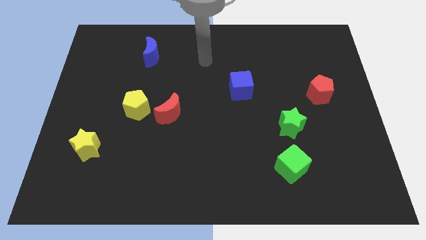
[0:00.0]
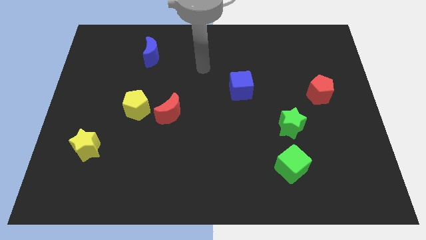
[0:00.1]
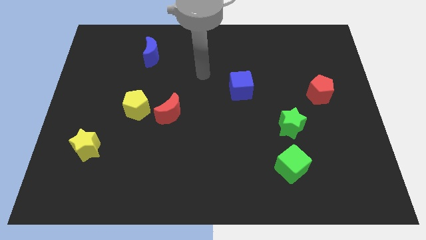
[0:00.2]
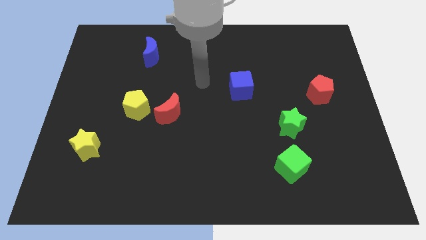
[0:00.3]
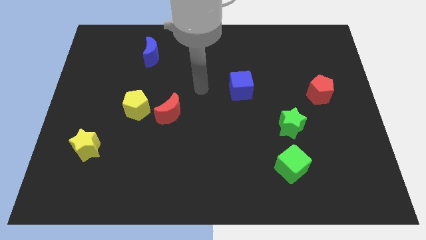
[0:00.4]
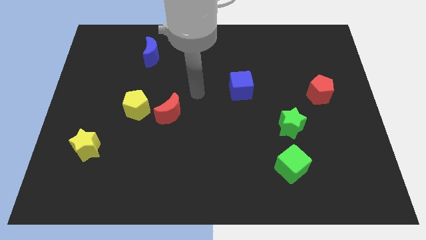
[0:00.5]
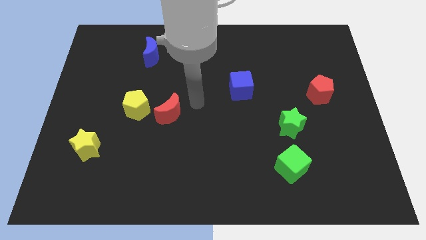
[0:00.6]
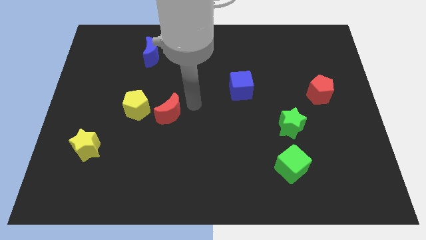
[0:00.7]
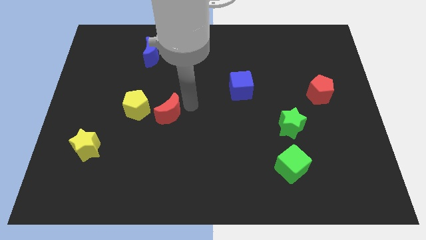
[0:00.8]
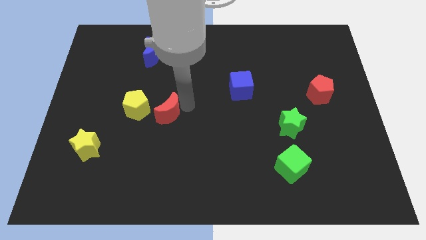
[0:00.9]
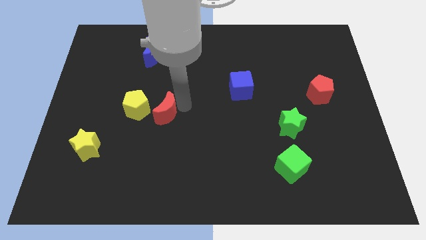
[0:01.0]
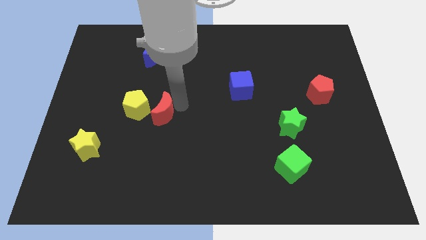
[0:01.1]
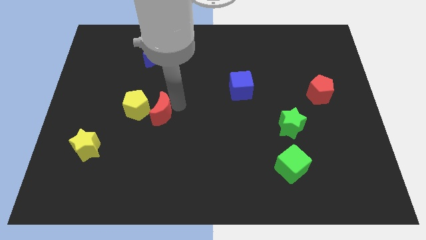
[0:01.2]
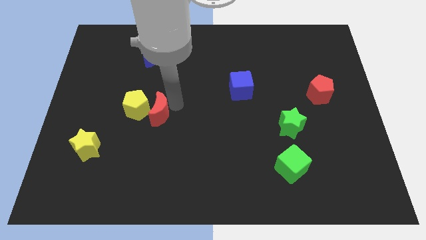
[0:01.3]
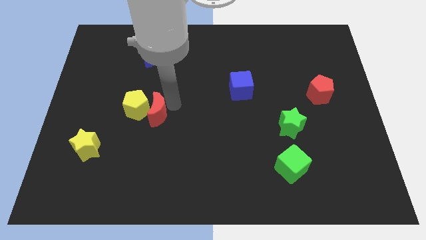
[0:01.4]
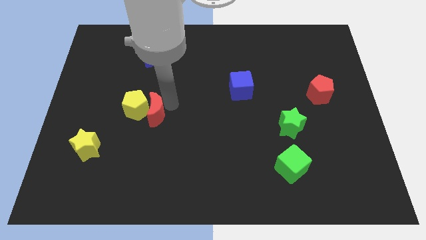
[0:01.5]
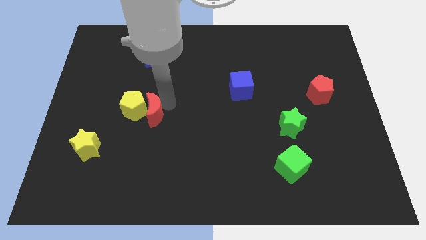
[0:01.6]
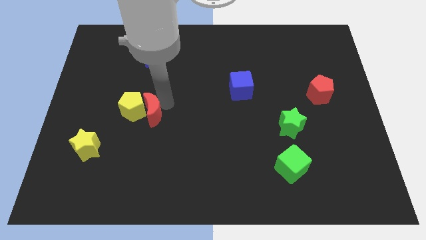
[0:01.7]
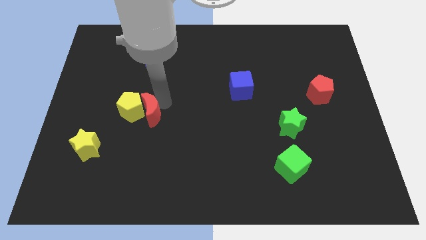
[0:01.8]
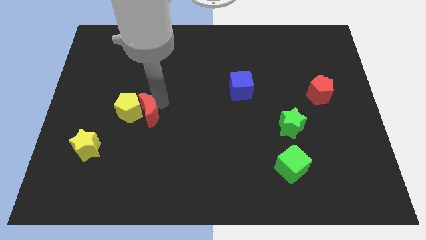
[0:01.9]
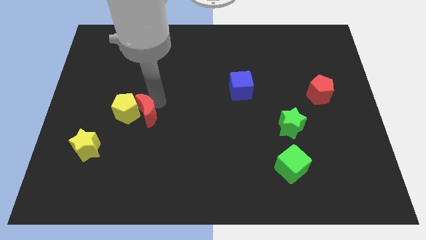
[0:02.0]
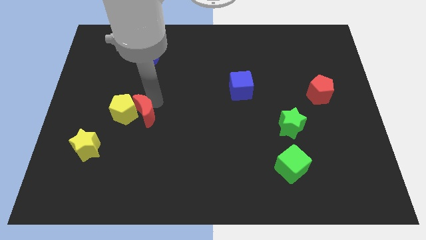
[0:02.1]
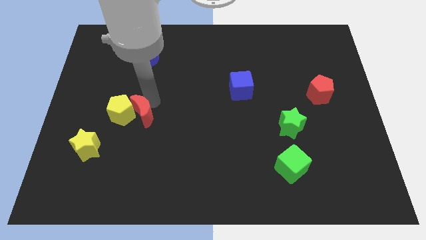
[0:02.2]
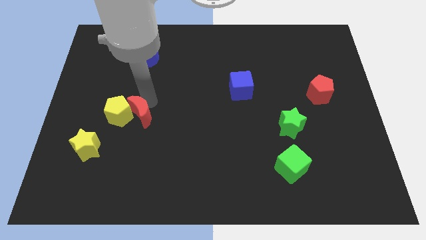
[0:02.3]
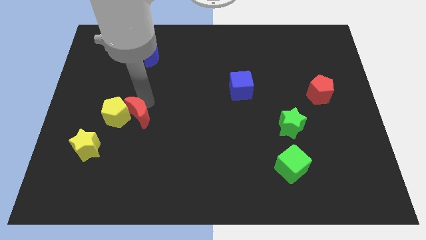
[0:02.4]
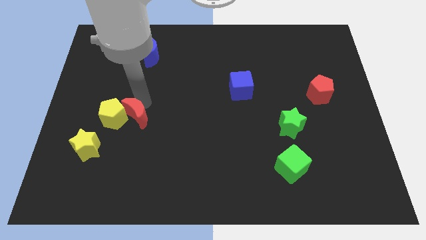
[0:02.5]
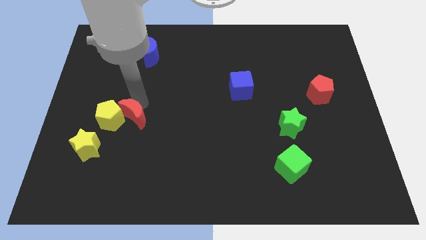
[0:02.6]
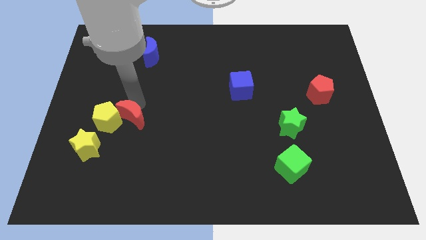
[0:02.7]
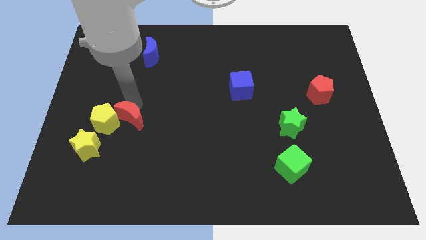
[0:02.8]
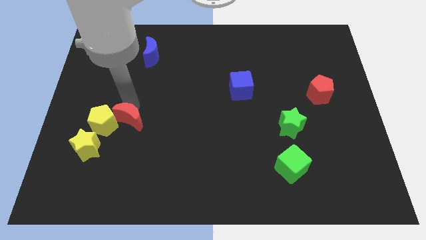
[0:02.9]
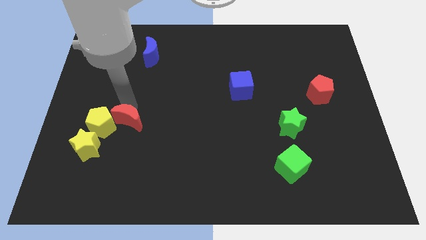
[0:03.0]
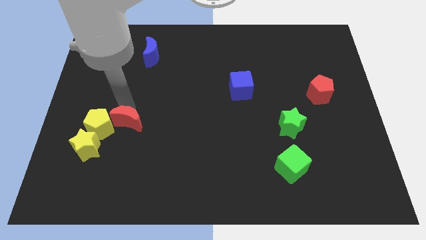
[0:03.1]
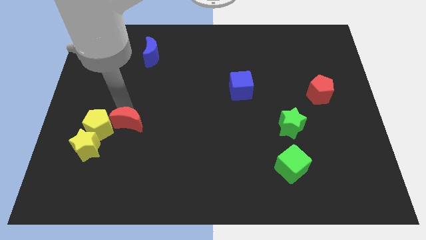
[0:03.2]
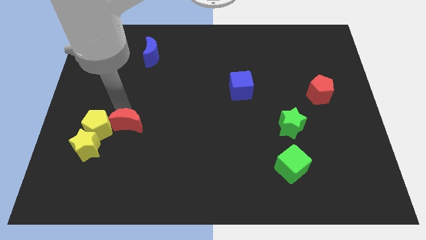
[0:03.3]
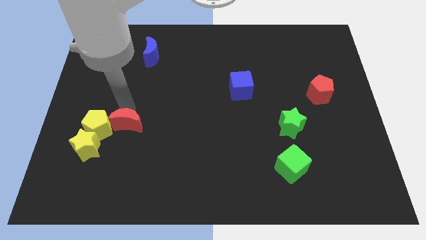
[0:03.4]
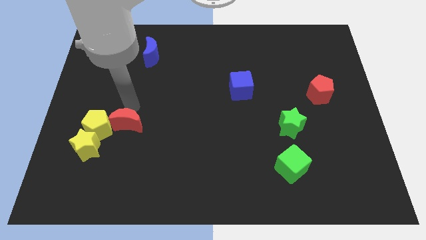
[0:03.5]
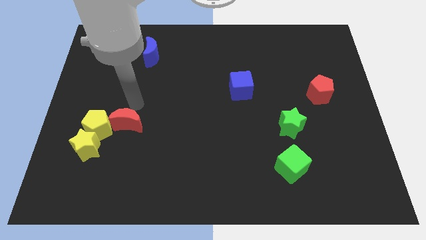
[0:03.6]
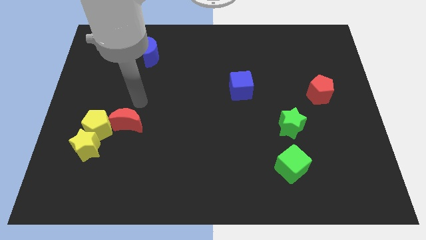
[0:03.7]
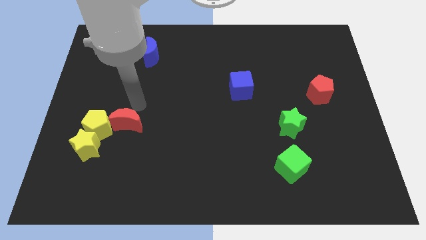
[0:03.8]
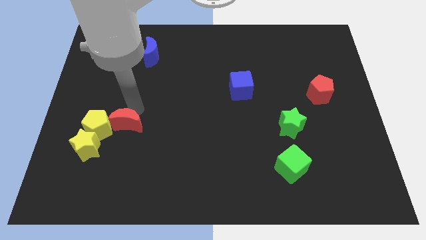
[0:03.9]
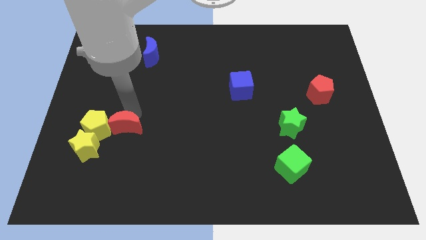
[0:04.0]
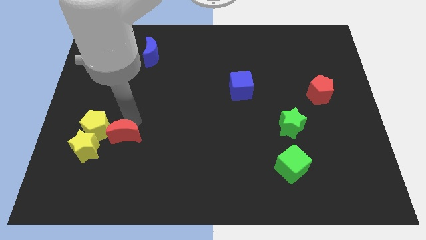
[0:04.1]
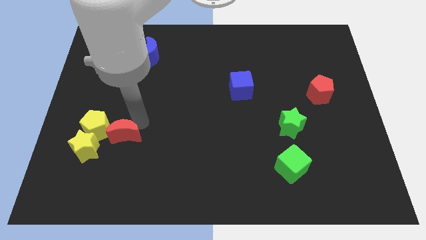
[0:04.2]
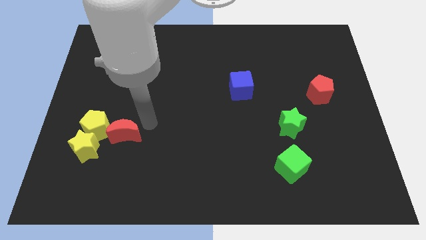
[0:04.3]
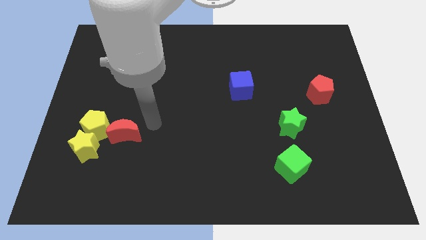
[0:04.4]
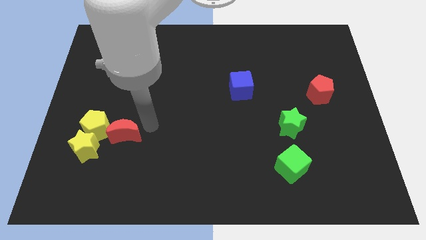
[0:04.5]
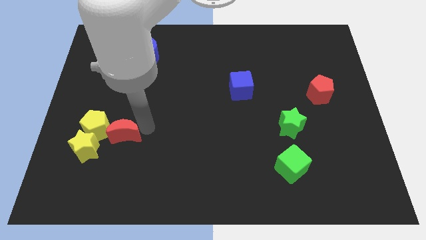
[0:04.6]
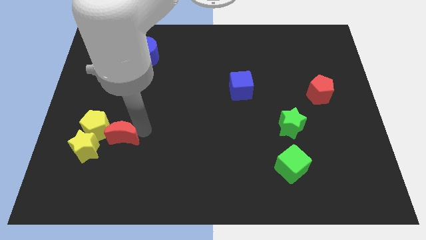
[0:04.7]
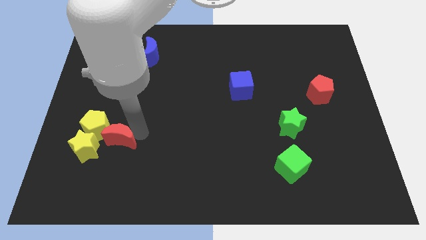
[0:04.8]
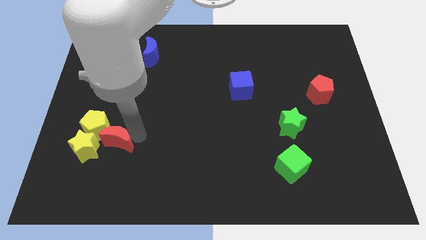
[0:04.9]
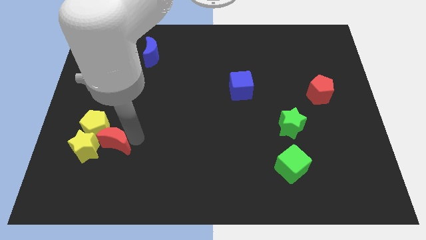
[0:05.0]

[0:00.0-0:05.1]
push the red moon close to the yellow star

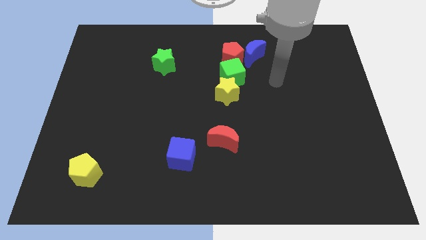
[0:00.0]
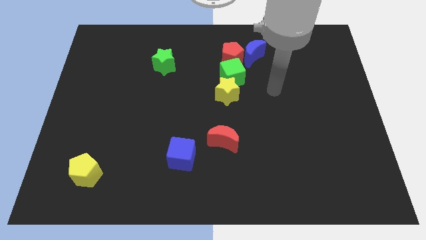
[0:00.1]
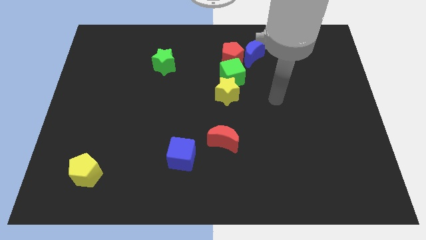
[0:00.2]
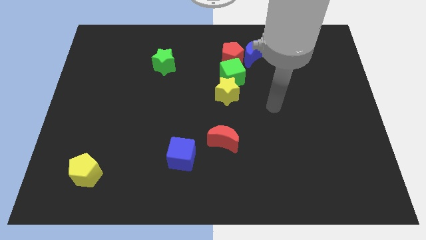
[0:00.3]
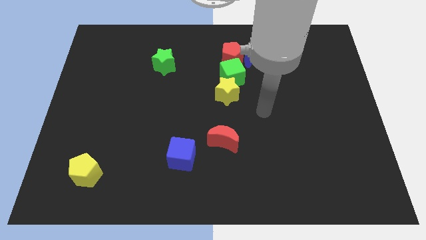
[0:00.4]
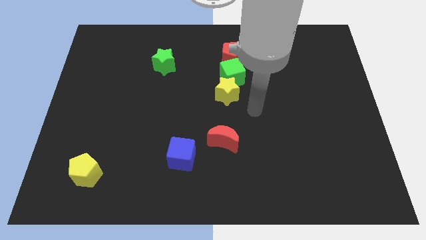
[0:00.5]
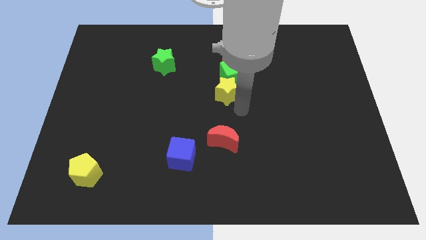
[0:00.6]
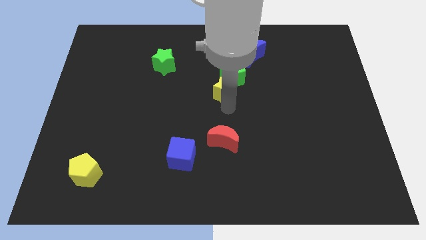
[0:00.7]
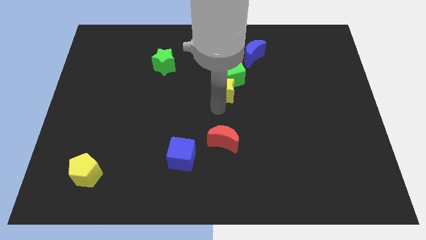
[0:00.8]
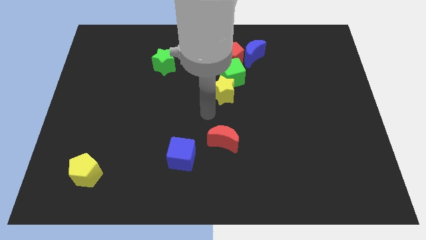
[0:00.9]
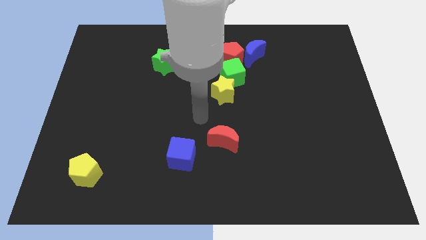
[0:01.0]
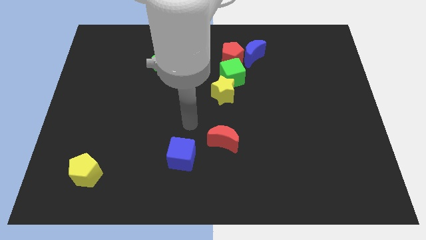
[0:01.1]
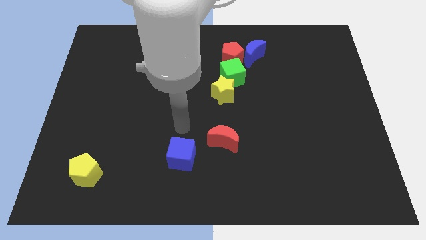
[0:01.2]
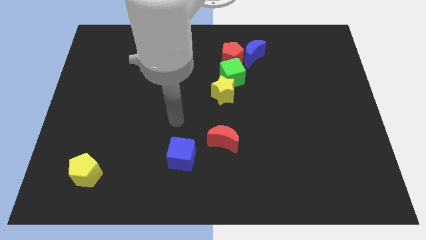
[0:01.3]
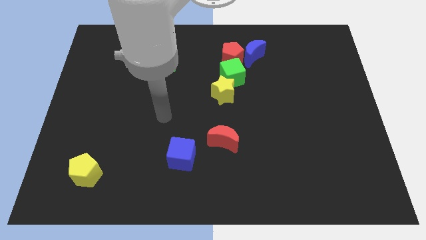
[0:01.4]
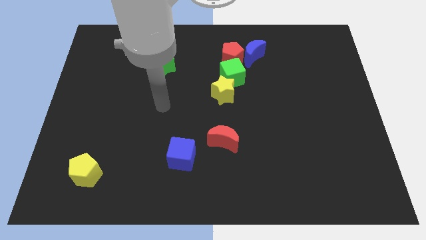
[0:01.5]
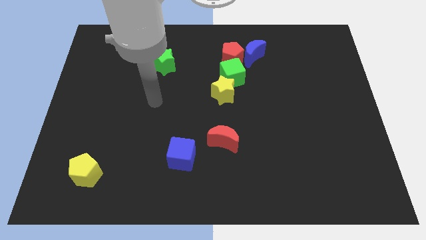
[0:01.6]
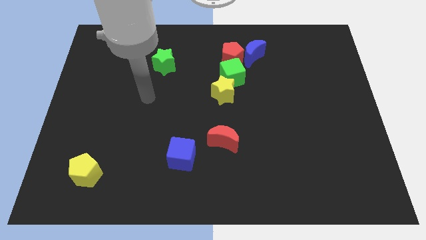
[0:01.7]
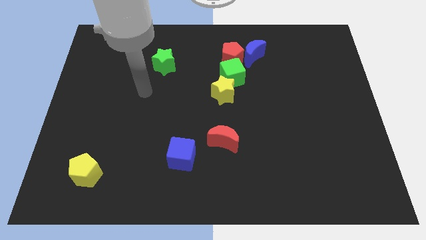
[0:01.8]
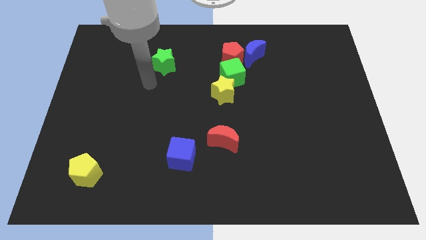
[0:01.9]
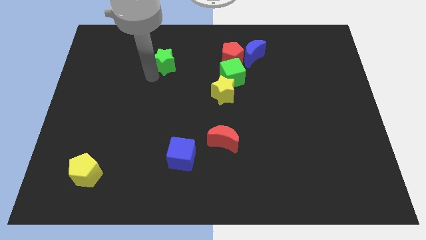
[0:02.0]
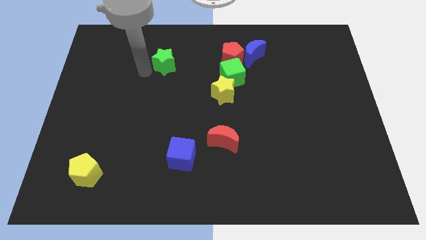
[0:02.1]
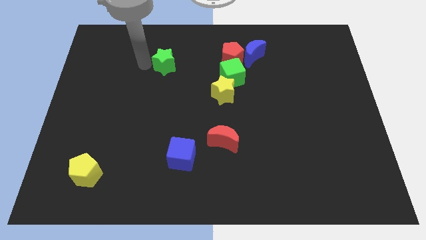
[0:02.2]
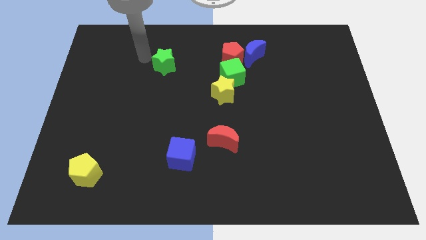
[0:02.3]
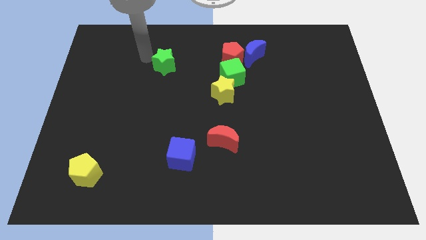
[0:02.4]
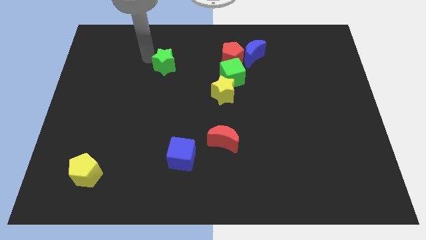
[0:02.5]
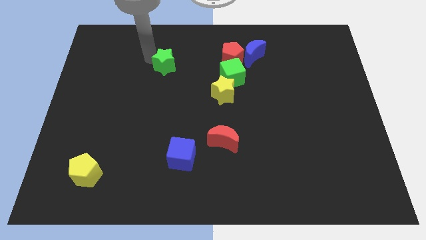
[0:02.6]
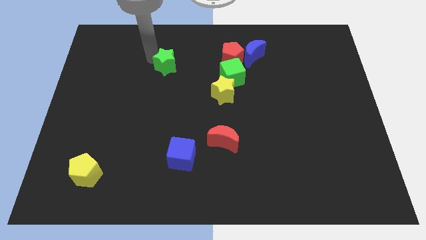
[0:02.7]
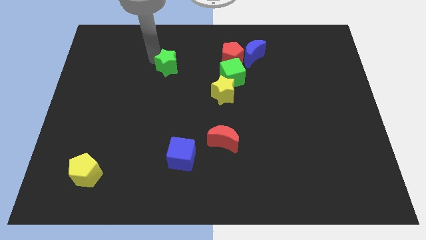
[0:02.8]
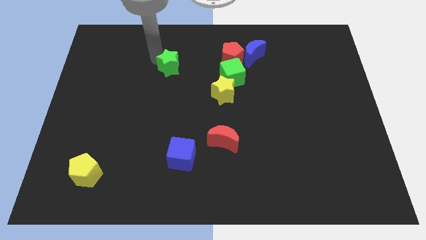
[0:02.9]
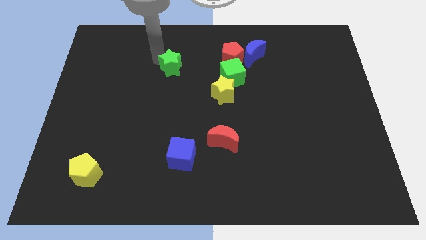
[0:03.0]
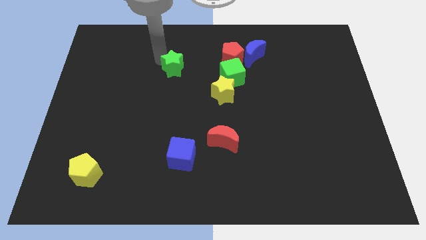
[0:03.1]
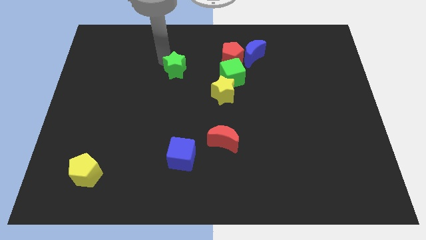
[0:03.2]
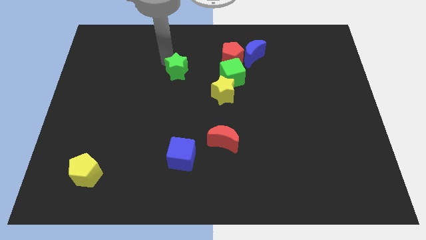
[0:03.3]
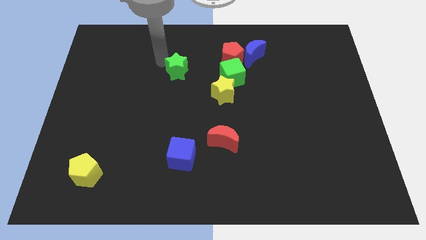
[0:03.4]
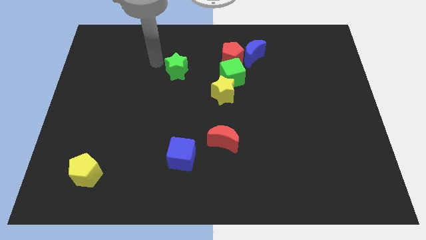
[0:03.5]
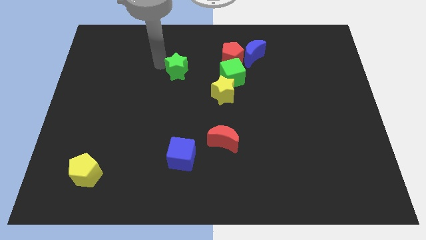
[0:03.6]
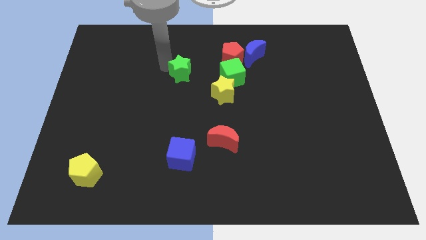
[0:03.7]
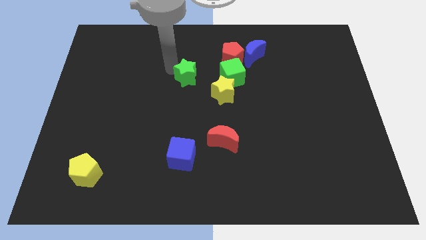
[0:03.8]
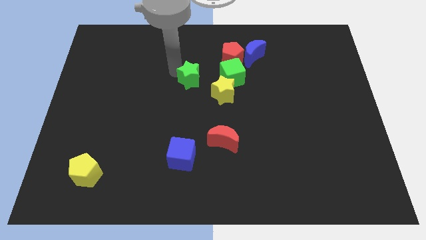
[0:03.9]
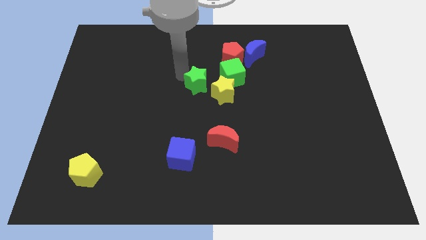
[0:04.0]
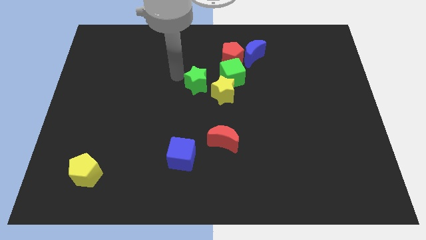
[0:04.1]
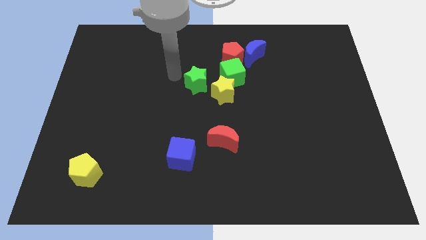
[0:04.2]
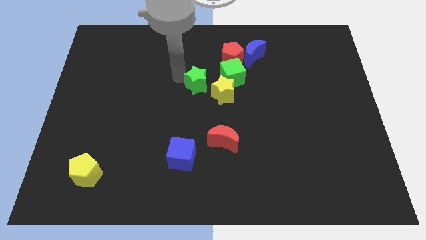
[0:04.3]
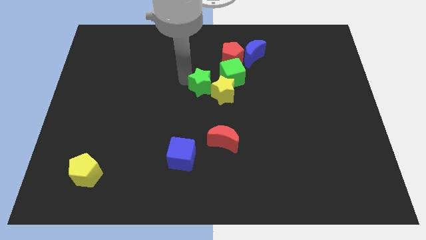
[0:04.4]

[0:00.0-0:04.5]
slide the green star next to the yellow star
